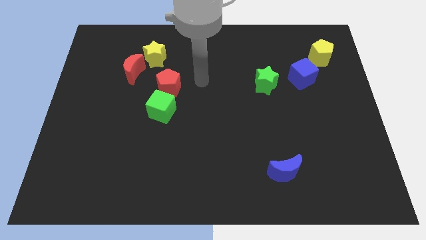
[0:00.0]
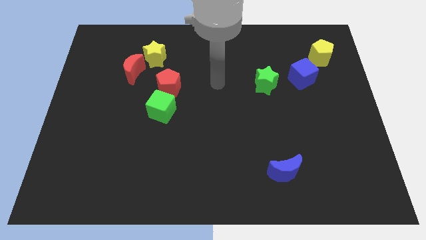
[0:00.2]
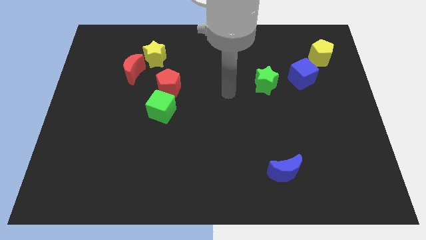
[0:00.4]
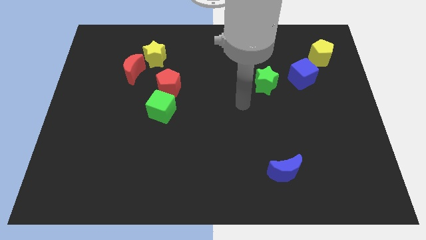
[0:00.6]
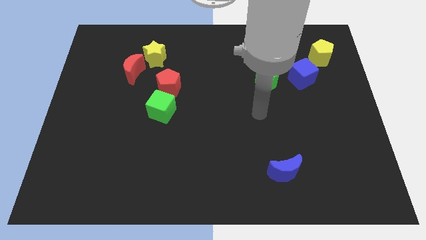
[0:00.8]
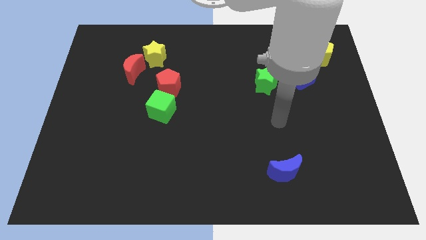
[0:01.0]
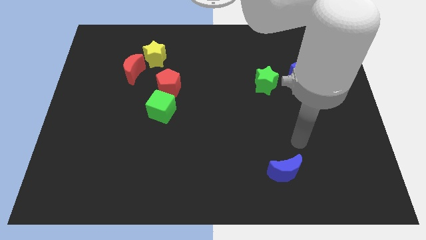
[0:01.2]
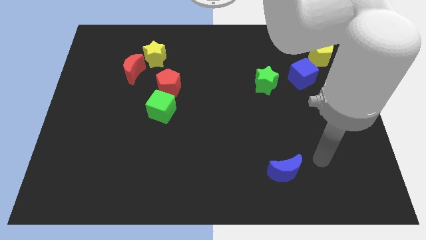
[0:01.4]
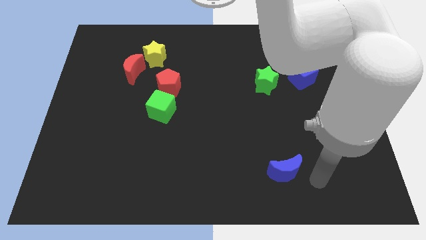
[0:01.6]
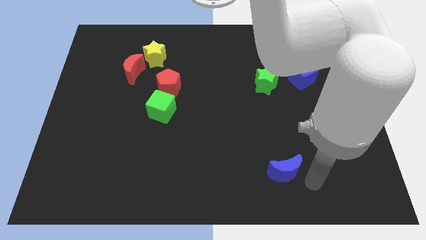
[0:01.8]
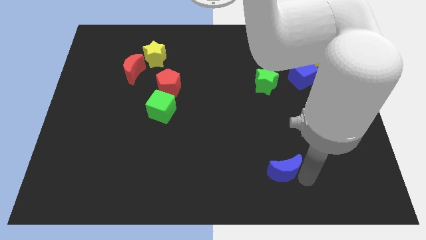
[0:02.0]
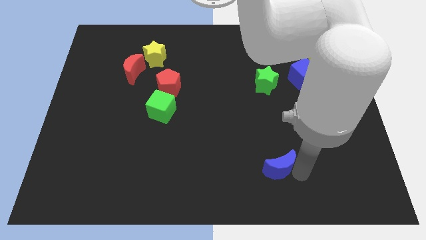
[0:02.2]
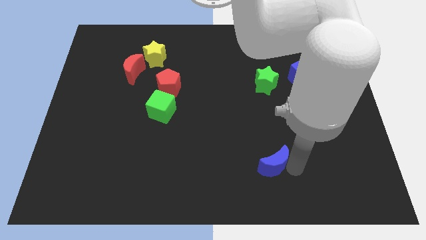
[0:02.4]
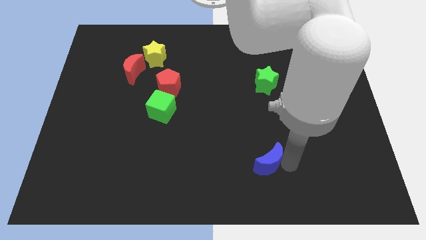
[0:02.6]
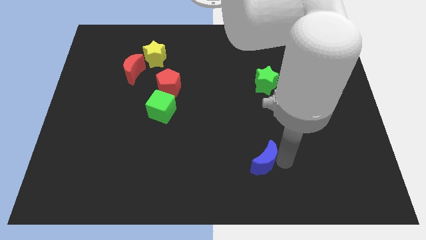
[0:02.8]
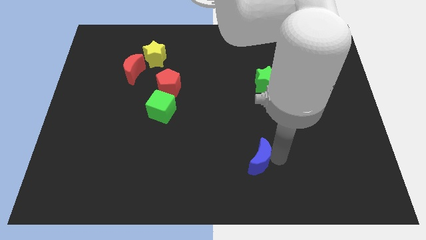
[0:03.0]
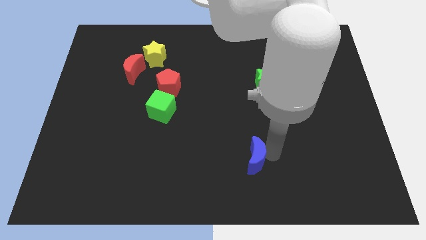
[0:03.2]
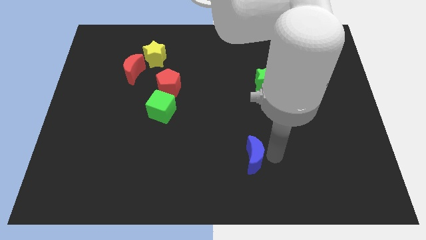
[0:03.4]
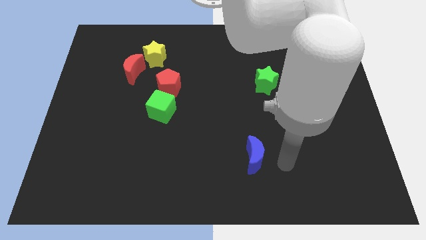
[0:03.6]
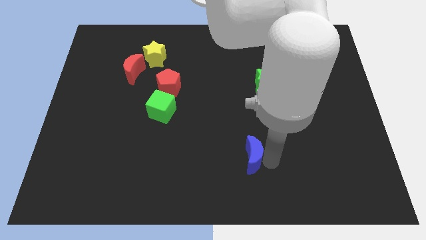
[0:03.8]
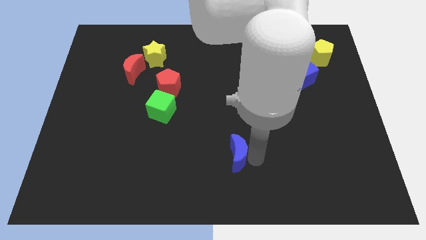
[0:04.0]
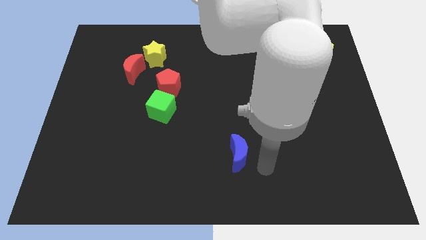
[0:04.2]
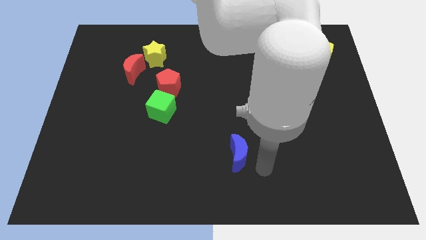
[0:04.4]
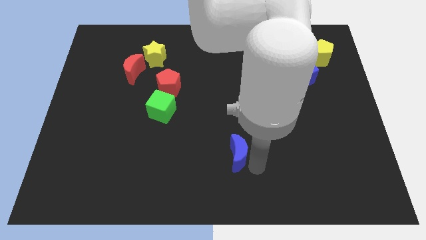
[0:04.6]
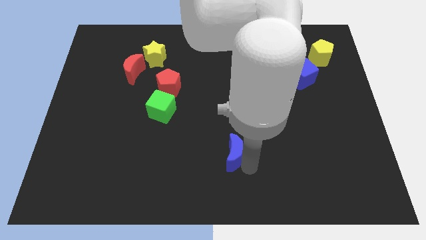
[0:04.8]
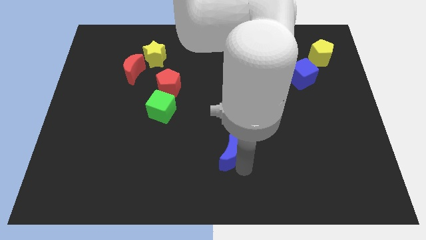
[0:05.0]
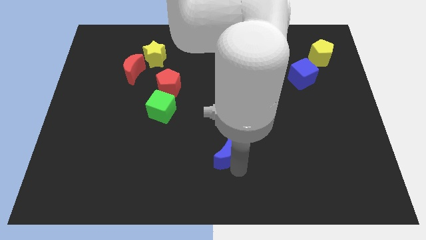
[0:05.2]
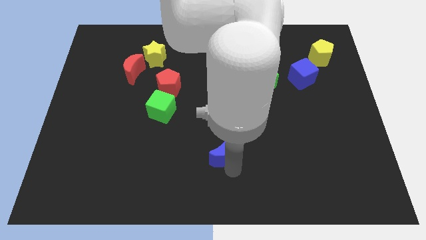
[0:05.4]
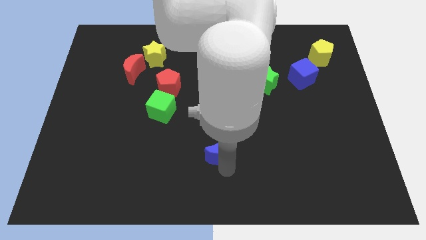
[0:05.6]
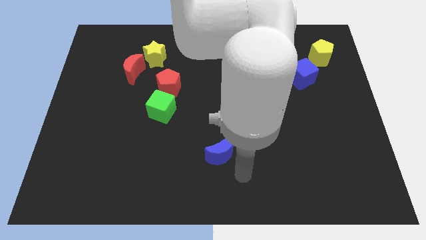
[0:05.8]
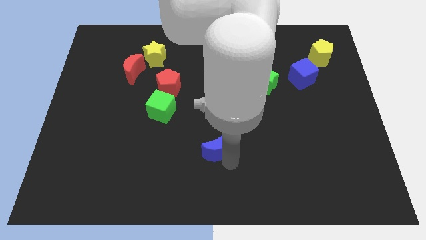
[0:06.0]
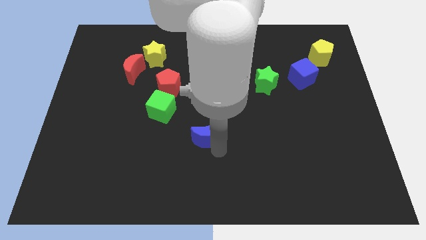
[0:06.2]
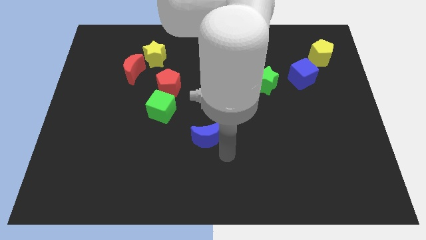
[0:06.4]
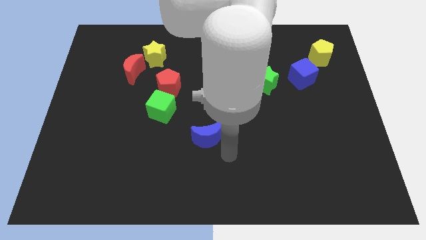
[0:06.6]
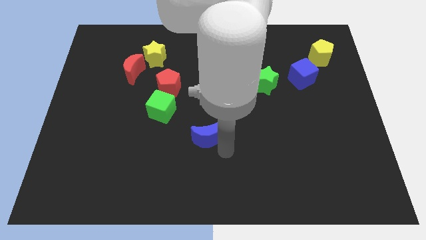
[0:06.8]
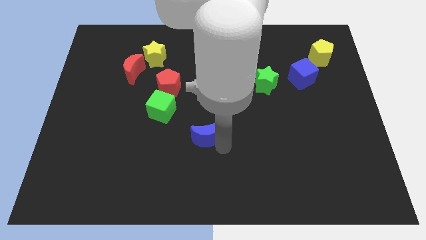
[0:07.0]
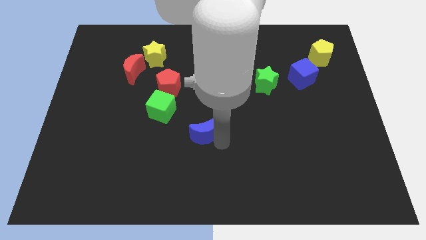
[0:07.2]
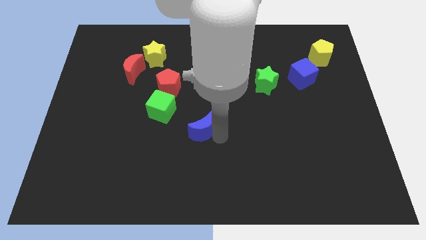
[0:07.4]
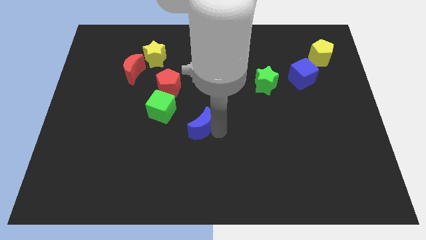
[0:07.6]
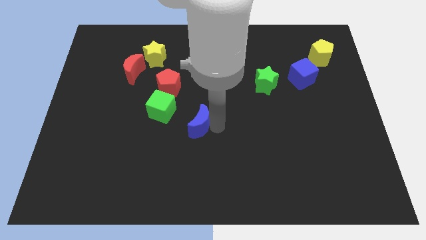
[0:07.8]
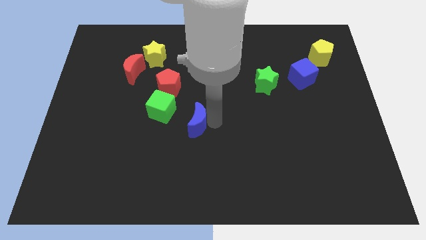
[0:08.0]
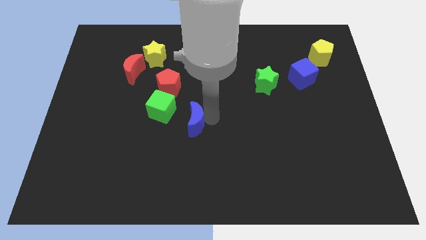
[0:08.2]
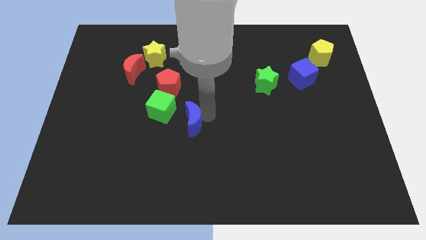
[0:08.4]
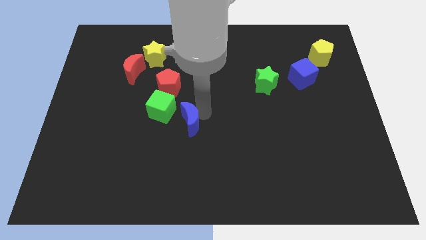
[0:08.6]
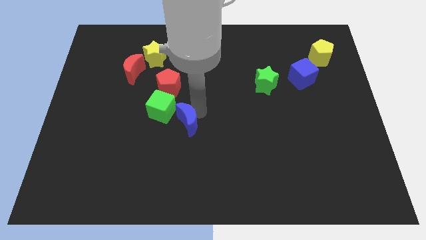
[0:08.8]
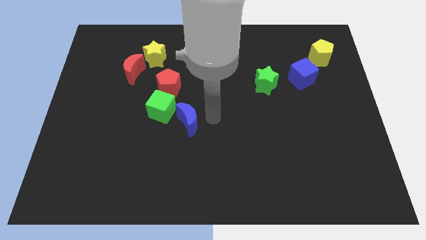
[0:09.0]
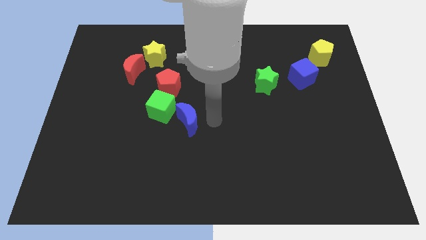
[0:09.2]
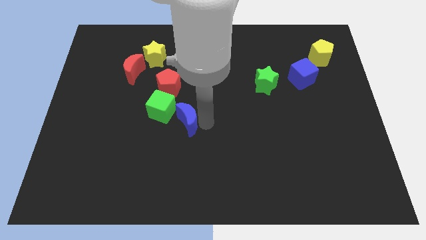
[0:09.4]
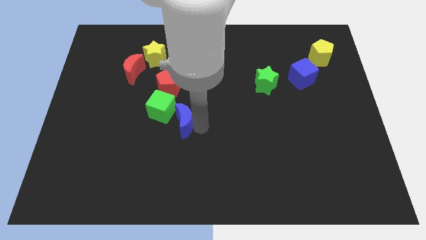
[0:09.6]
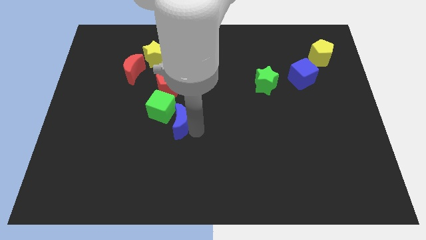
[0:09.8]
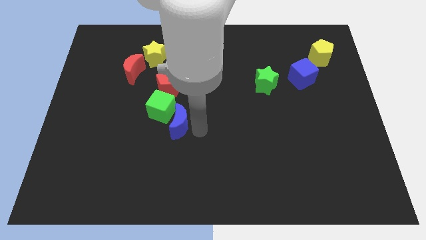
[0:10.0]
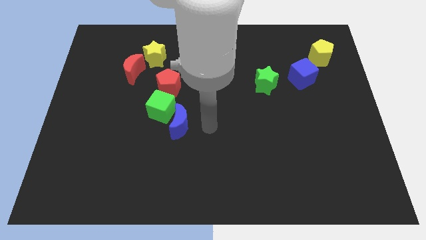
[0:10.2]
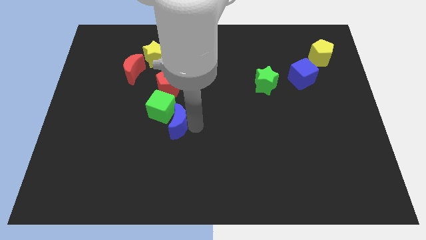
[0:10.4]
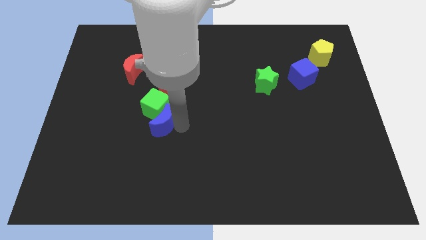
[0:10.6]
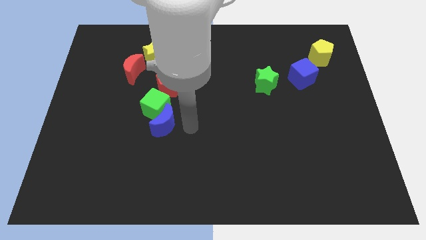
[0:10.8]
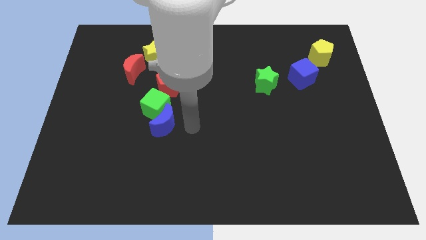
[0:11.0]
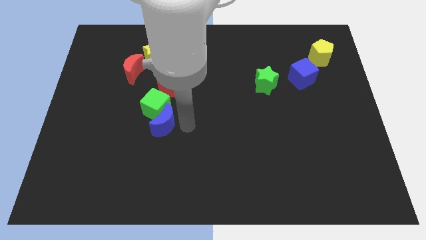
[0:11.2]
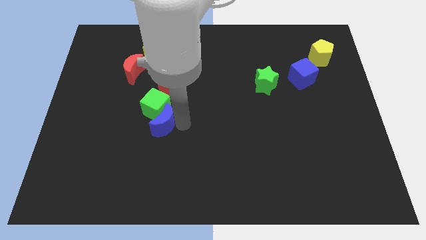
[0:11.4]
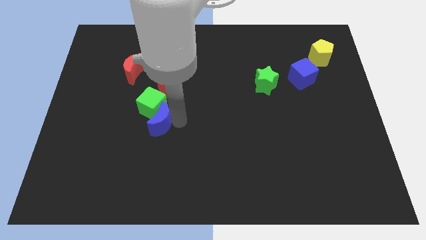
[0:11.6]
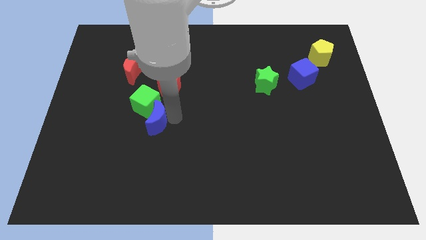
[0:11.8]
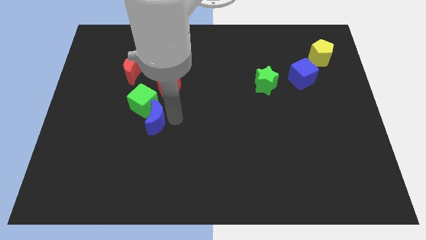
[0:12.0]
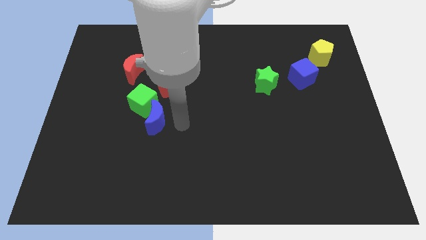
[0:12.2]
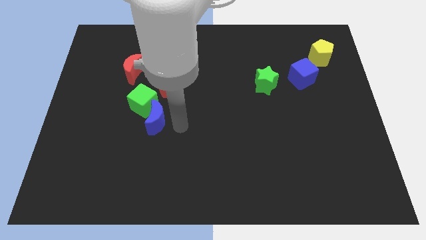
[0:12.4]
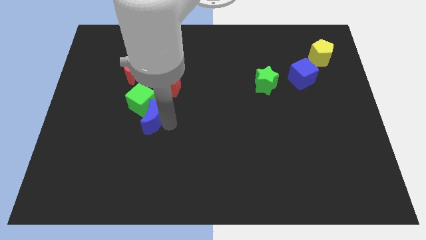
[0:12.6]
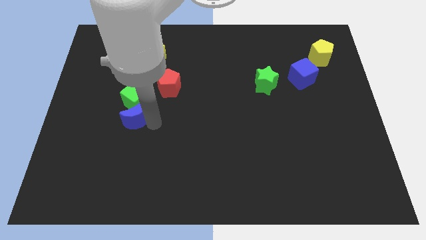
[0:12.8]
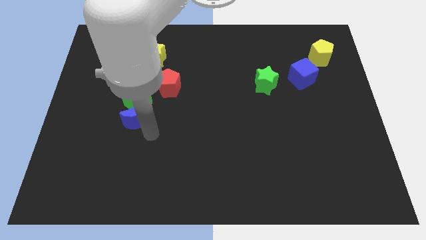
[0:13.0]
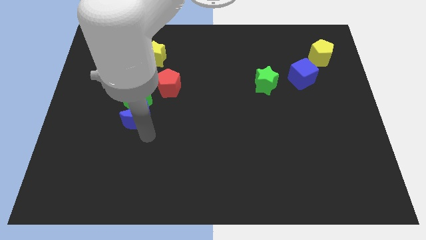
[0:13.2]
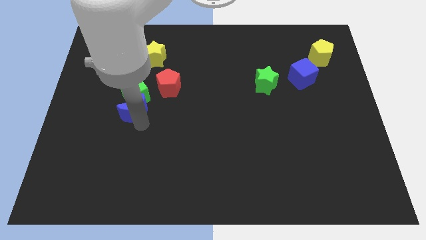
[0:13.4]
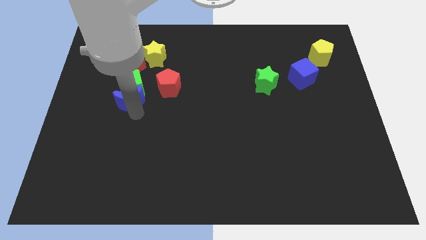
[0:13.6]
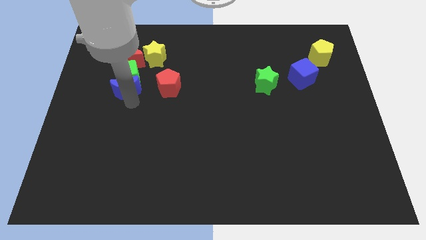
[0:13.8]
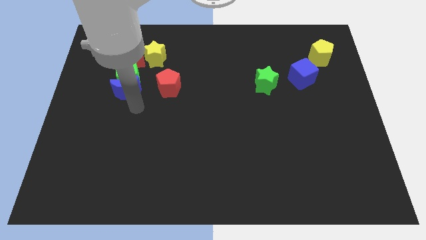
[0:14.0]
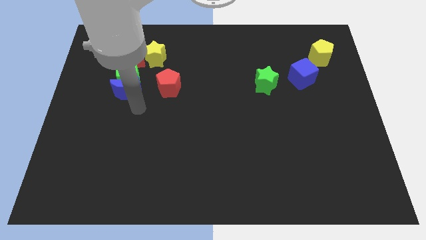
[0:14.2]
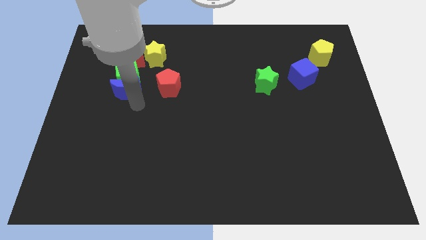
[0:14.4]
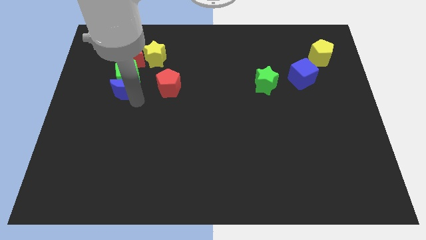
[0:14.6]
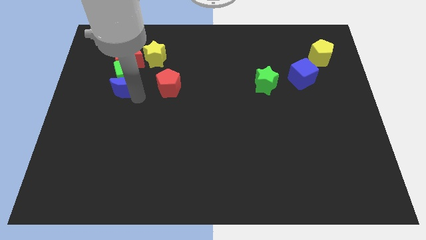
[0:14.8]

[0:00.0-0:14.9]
push the blue moon to the bottom left side of the yellow star

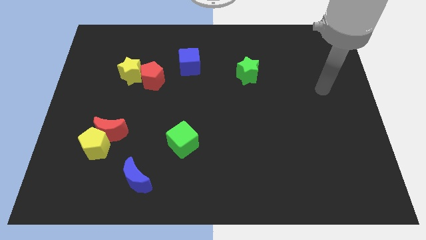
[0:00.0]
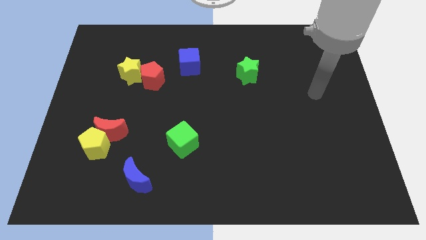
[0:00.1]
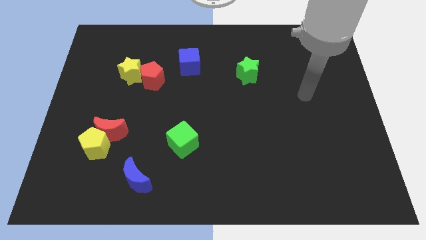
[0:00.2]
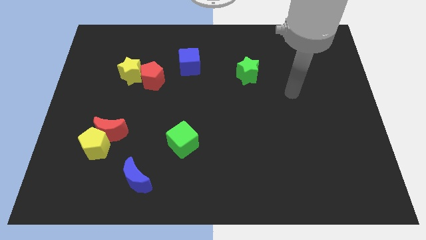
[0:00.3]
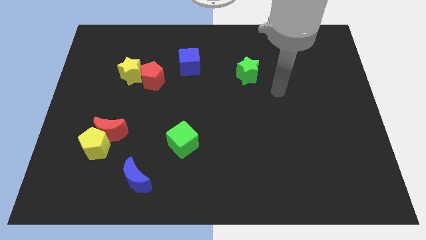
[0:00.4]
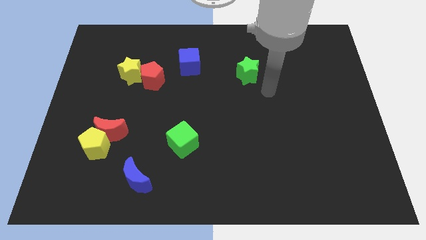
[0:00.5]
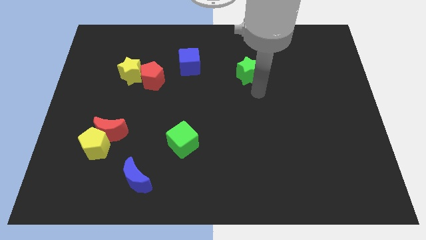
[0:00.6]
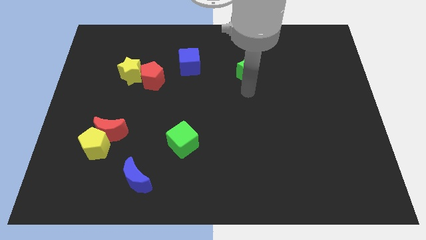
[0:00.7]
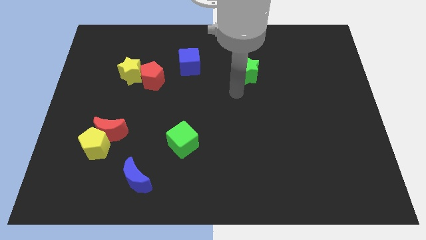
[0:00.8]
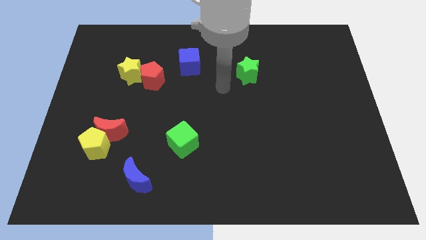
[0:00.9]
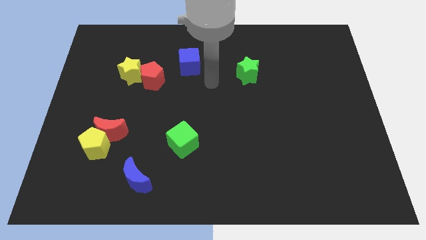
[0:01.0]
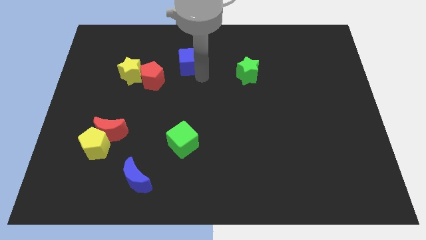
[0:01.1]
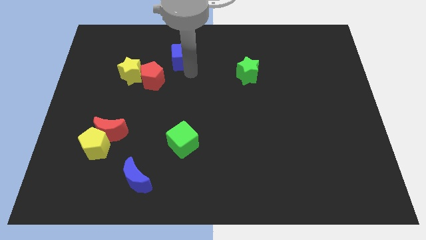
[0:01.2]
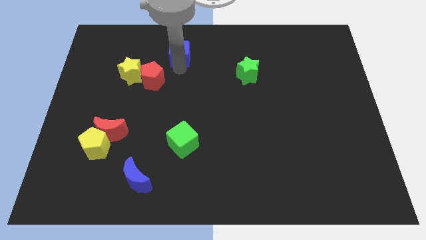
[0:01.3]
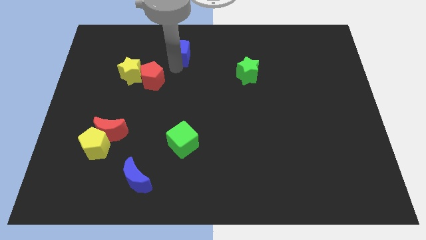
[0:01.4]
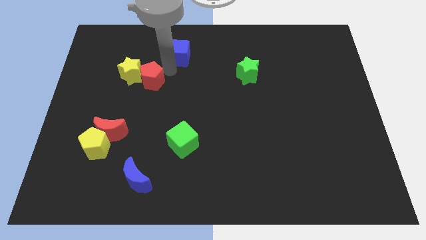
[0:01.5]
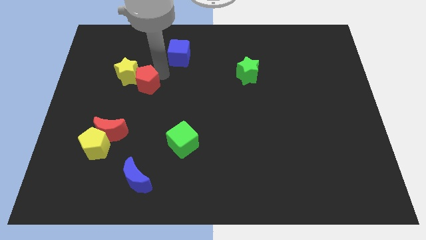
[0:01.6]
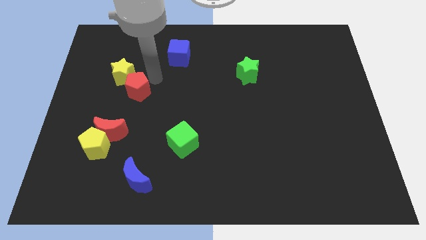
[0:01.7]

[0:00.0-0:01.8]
push the red pentagon to the top of the red moon
